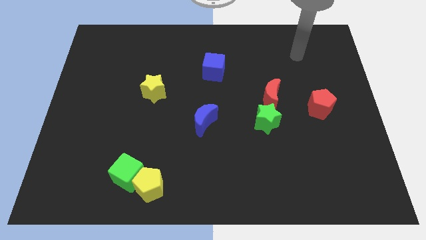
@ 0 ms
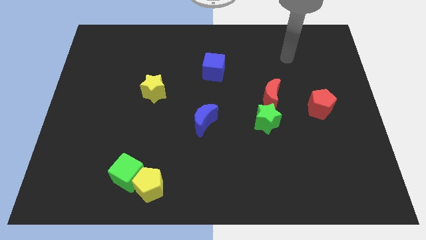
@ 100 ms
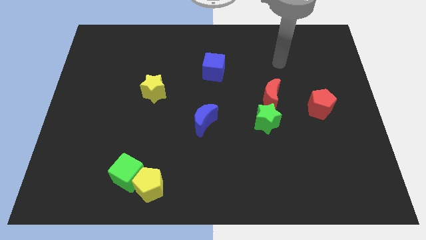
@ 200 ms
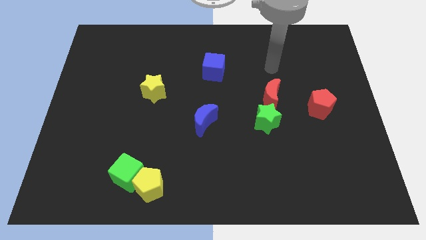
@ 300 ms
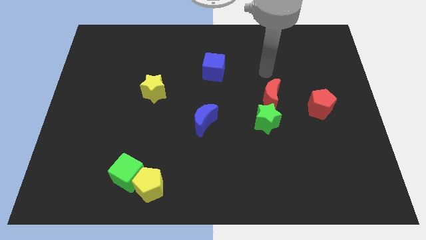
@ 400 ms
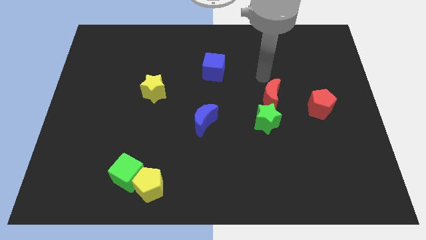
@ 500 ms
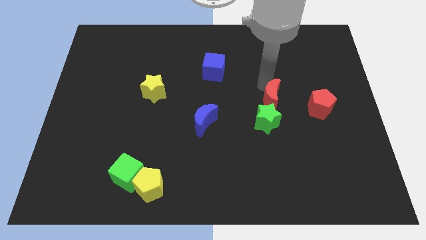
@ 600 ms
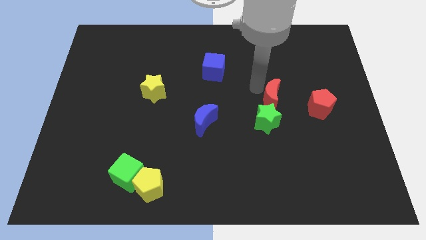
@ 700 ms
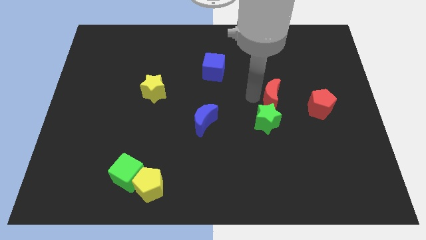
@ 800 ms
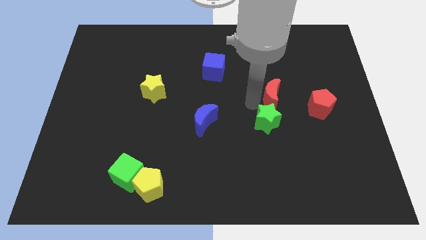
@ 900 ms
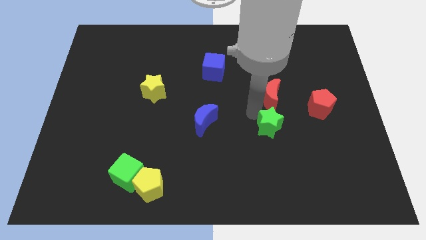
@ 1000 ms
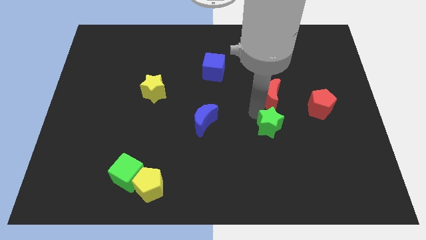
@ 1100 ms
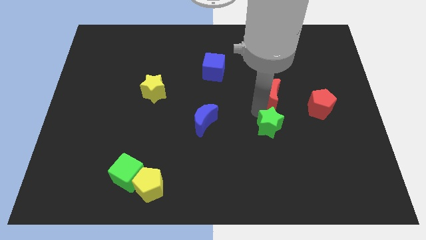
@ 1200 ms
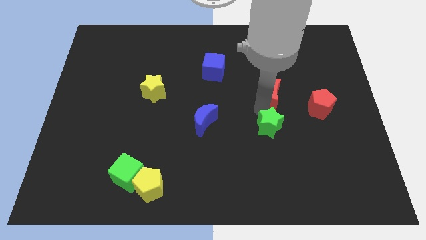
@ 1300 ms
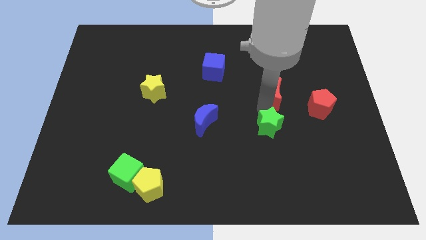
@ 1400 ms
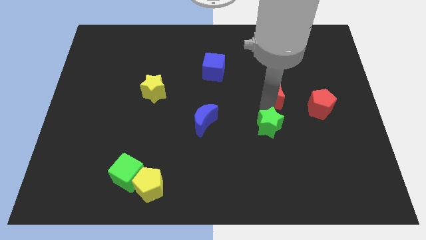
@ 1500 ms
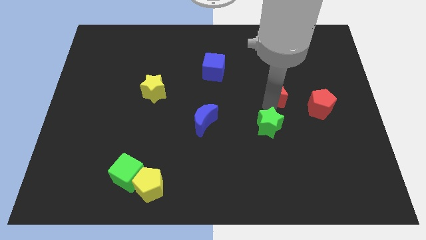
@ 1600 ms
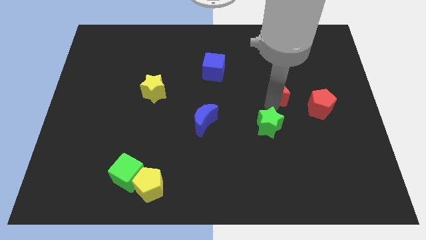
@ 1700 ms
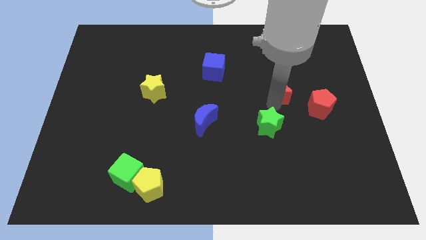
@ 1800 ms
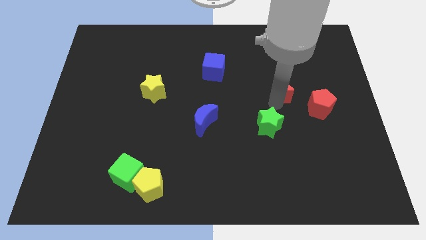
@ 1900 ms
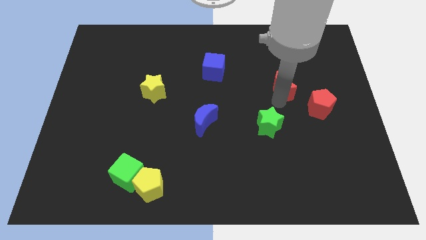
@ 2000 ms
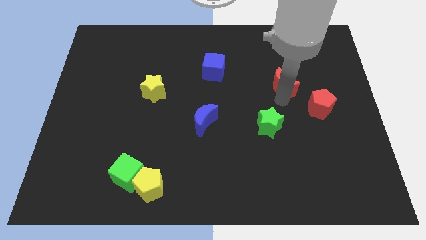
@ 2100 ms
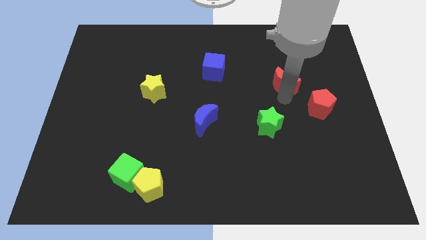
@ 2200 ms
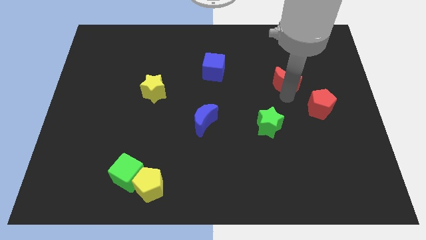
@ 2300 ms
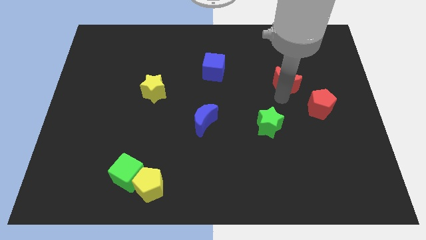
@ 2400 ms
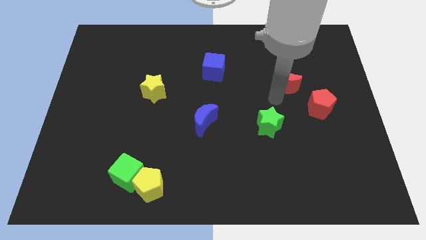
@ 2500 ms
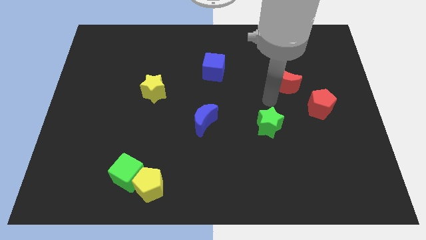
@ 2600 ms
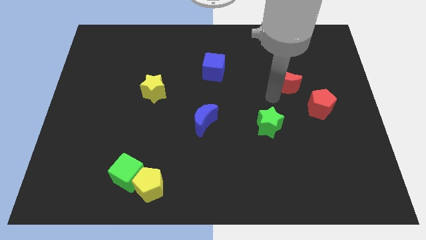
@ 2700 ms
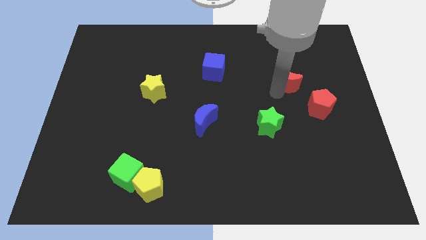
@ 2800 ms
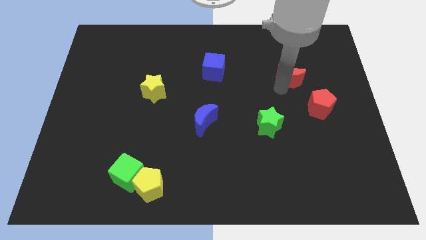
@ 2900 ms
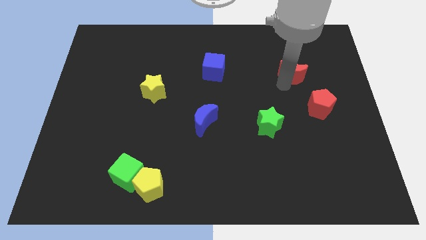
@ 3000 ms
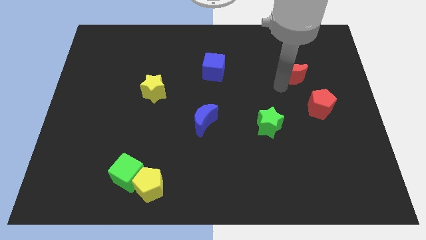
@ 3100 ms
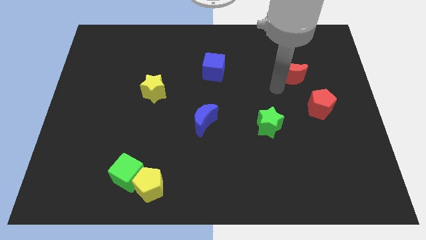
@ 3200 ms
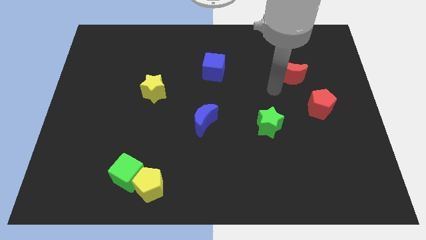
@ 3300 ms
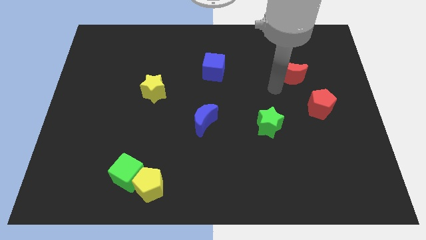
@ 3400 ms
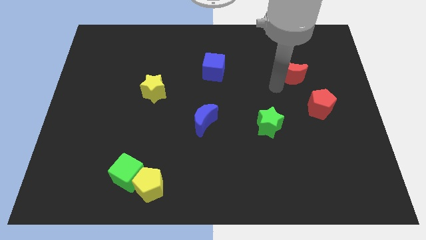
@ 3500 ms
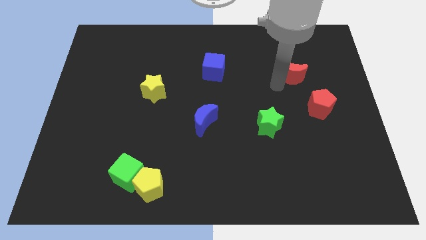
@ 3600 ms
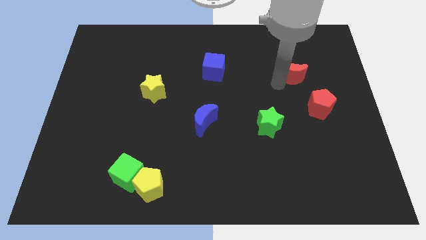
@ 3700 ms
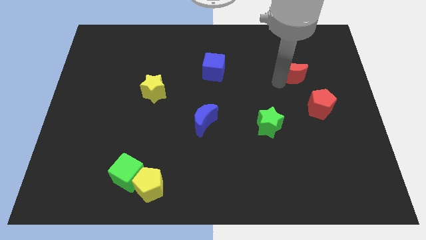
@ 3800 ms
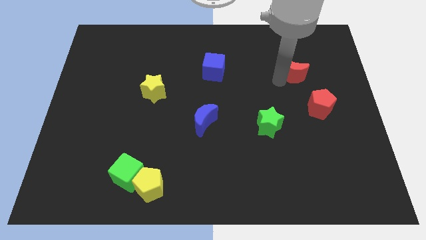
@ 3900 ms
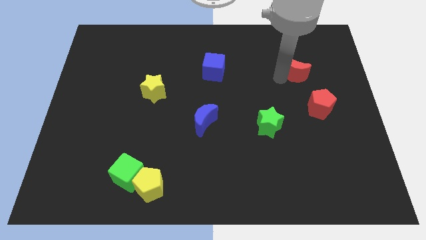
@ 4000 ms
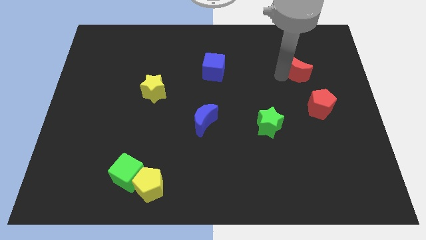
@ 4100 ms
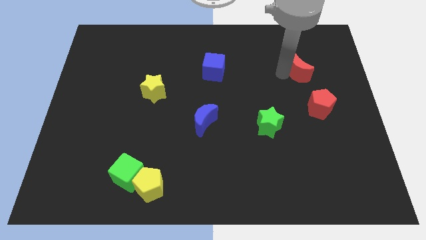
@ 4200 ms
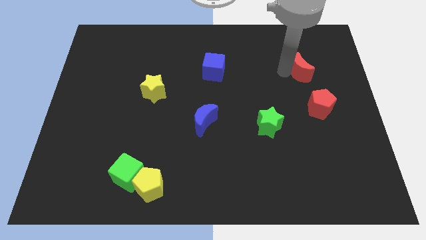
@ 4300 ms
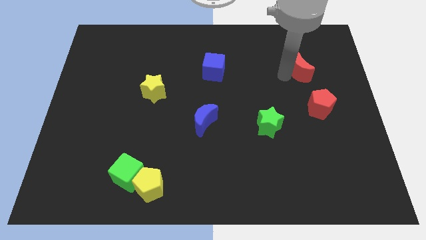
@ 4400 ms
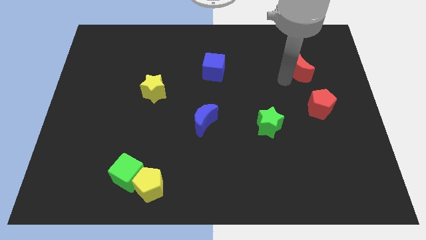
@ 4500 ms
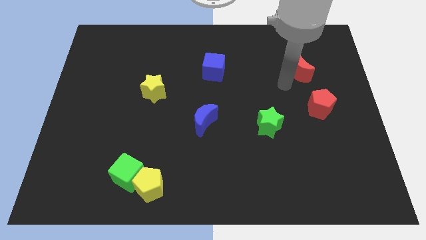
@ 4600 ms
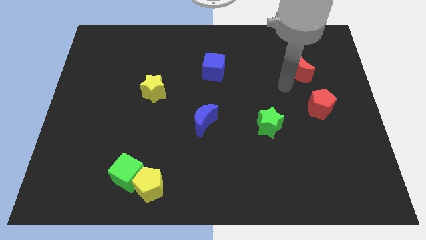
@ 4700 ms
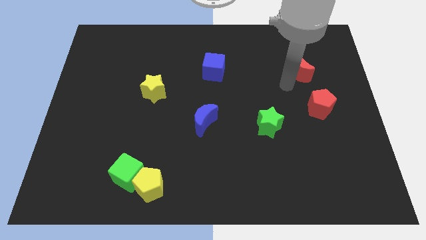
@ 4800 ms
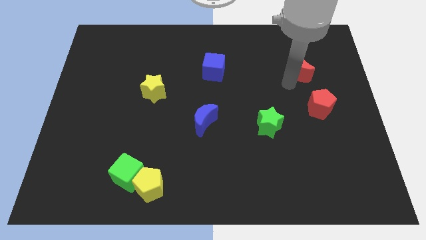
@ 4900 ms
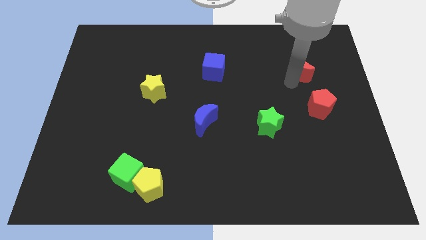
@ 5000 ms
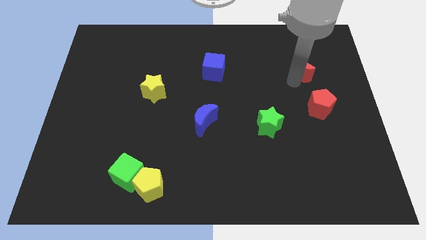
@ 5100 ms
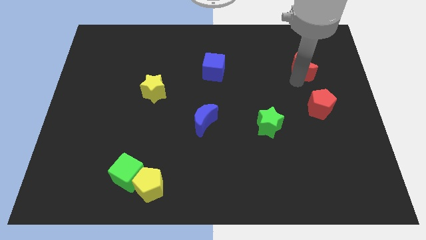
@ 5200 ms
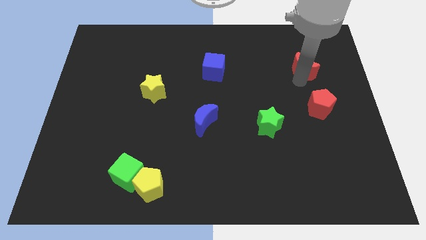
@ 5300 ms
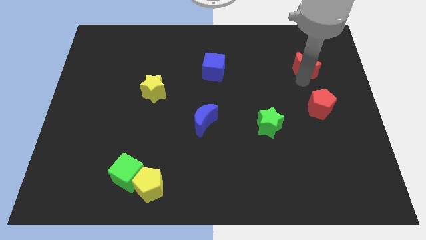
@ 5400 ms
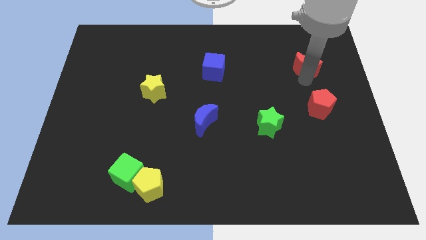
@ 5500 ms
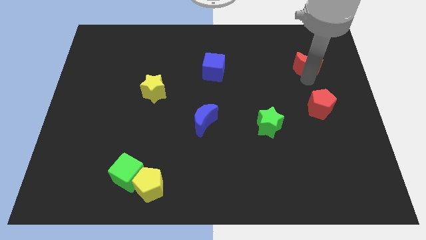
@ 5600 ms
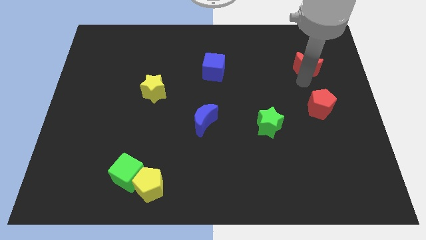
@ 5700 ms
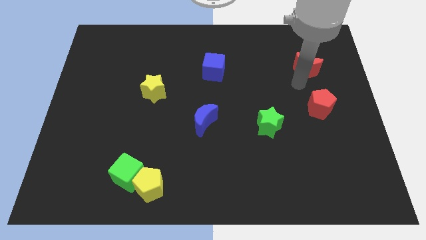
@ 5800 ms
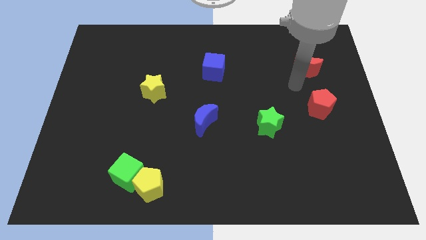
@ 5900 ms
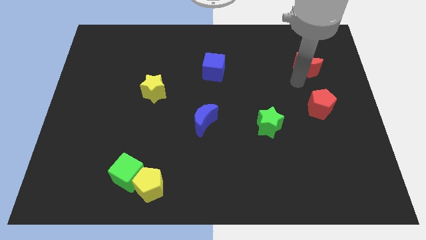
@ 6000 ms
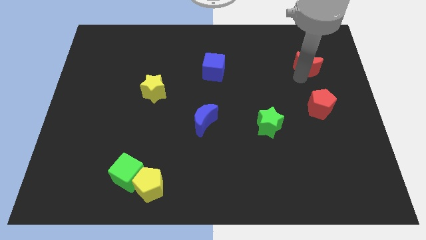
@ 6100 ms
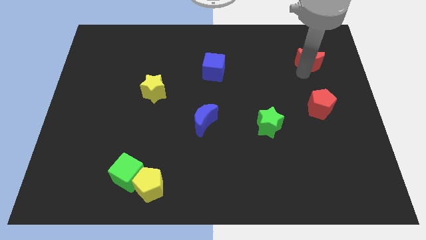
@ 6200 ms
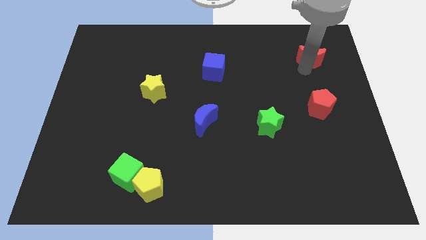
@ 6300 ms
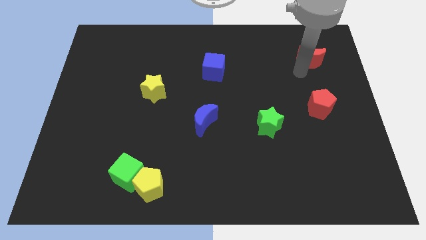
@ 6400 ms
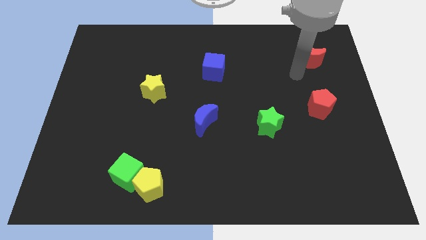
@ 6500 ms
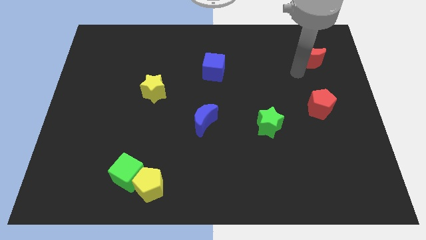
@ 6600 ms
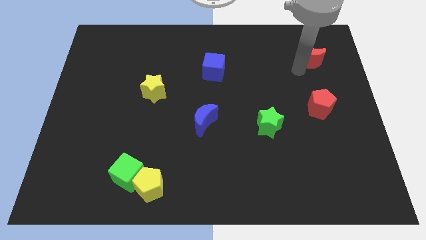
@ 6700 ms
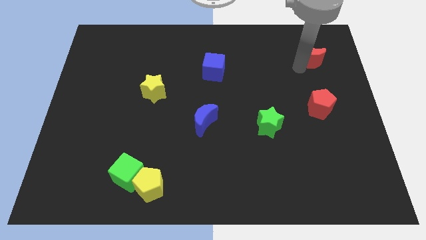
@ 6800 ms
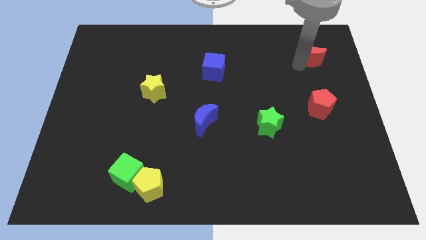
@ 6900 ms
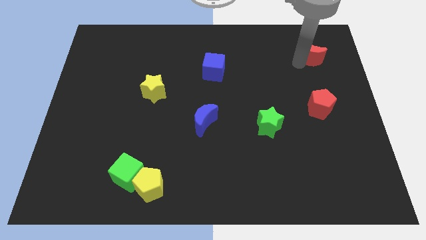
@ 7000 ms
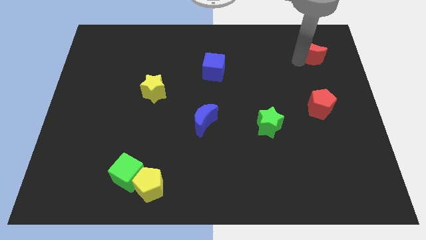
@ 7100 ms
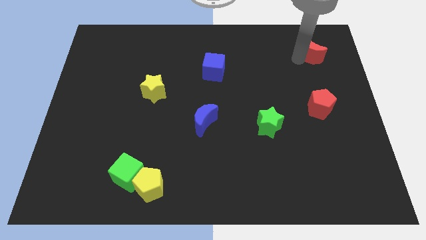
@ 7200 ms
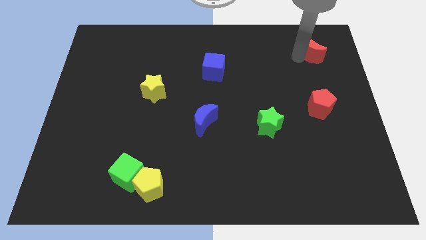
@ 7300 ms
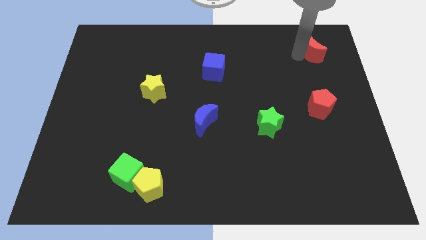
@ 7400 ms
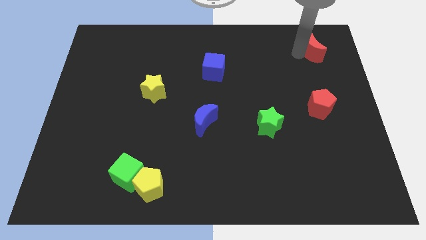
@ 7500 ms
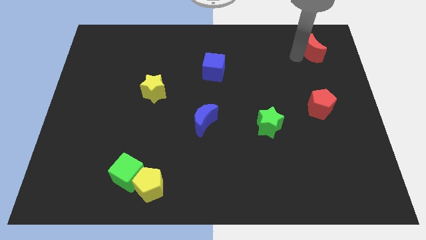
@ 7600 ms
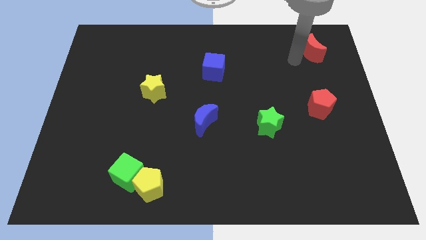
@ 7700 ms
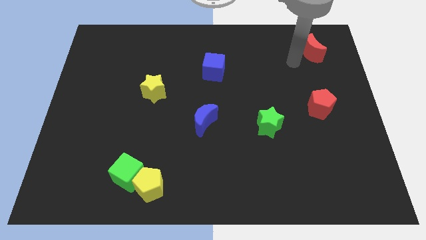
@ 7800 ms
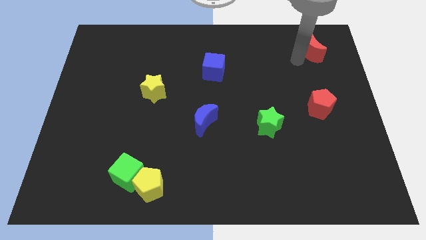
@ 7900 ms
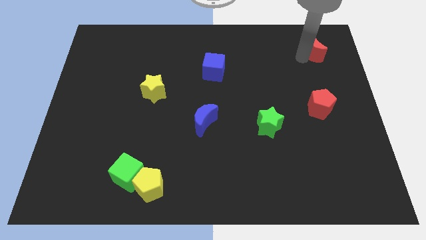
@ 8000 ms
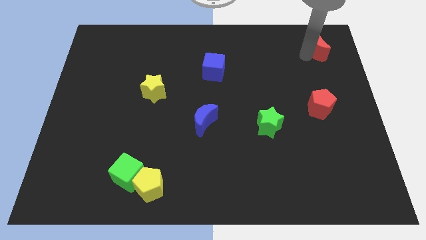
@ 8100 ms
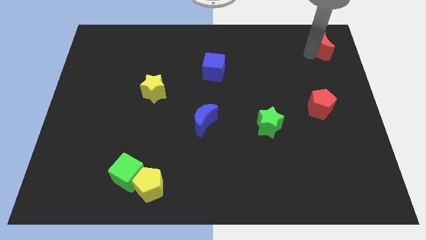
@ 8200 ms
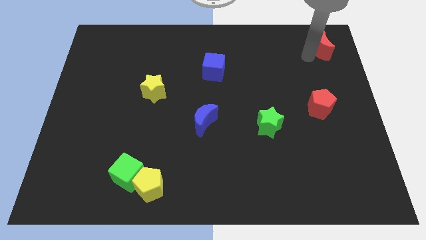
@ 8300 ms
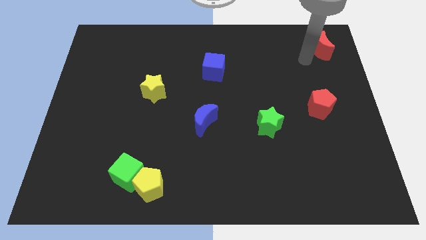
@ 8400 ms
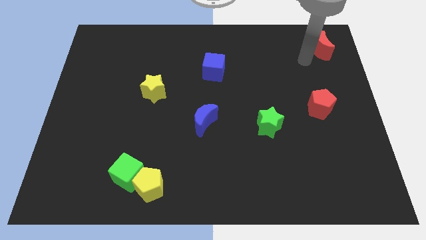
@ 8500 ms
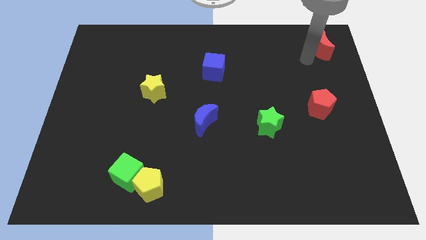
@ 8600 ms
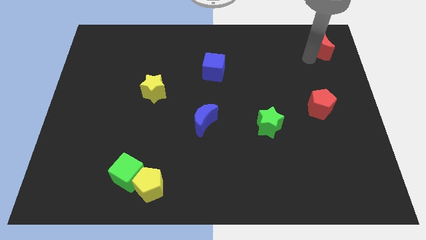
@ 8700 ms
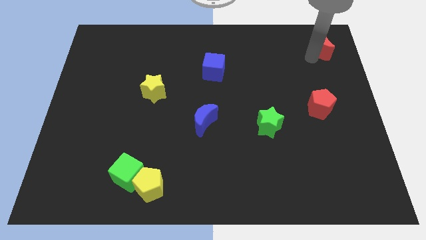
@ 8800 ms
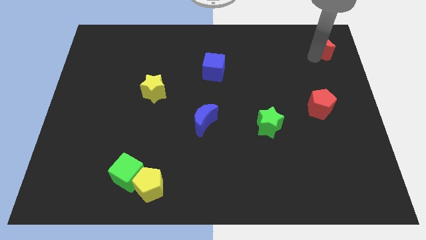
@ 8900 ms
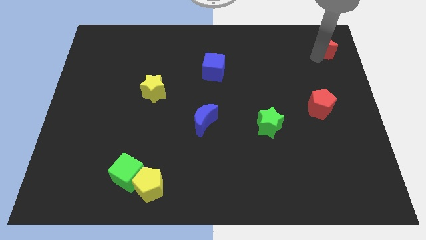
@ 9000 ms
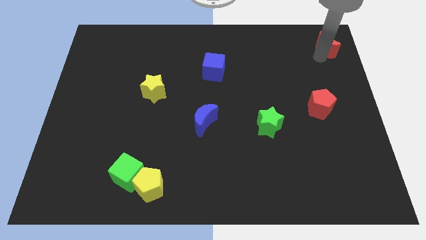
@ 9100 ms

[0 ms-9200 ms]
put the red moon to the top right of the board
